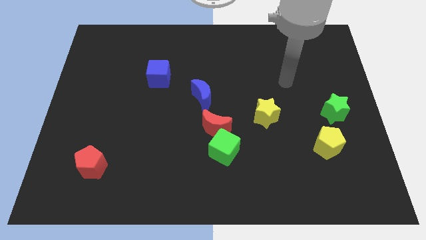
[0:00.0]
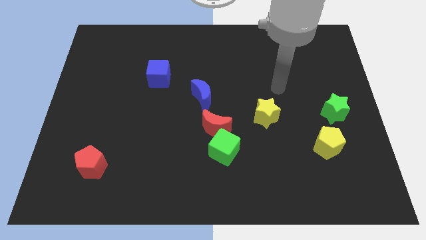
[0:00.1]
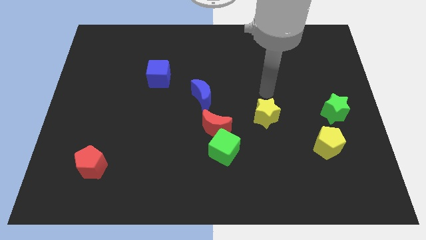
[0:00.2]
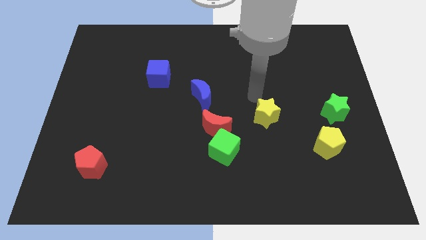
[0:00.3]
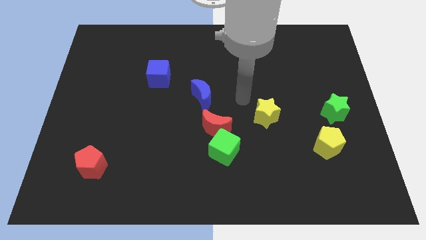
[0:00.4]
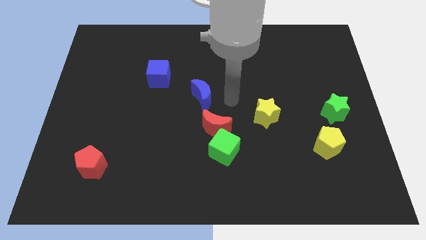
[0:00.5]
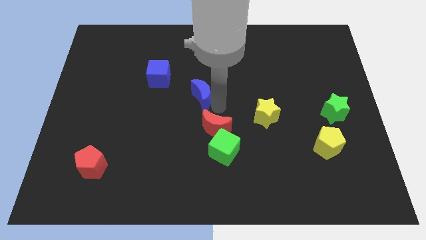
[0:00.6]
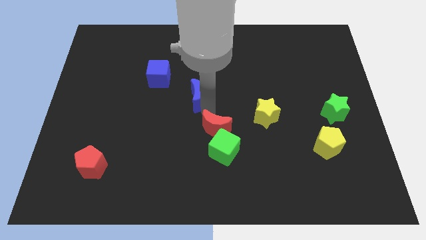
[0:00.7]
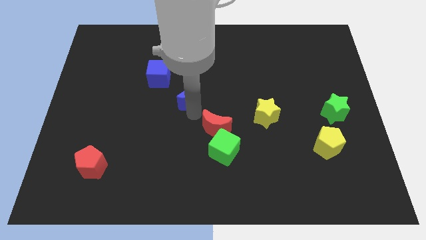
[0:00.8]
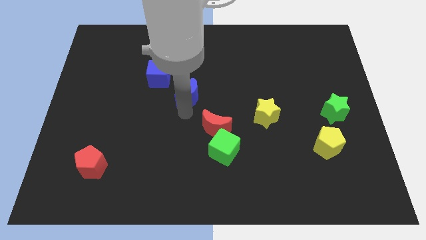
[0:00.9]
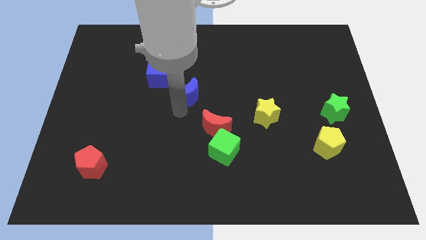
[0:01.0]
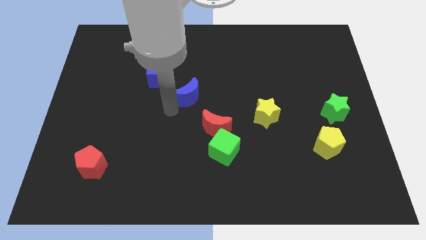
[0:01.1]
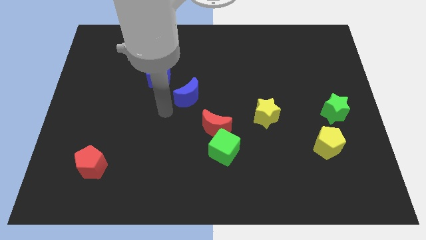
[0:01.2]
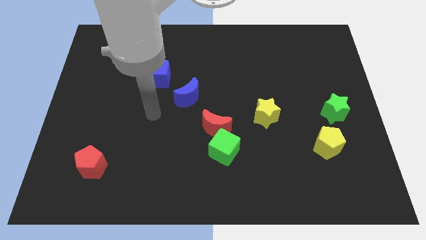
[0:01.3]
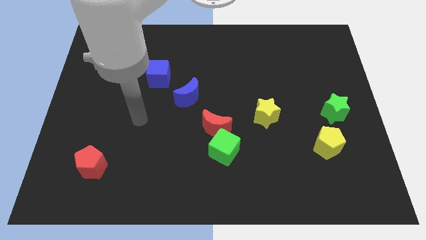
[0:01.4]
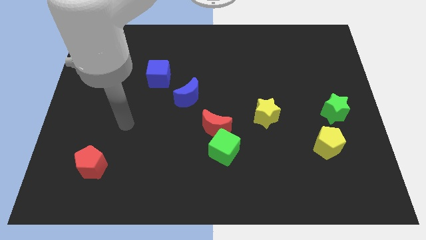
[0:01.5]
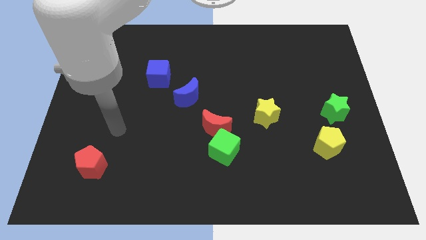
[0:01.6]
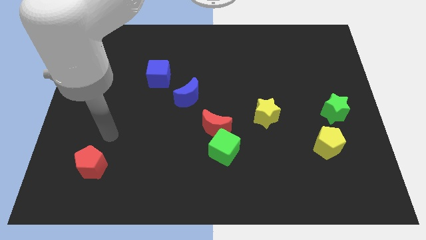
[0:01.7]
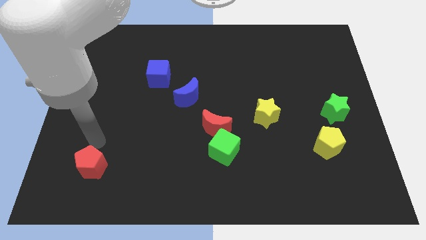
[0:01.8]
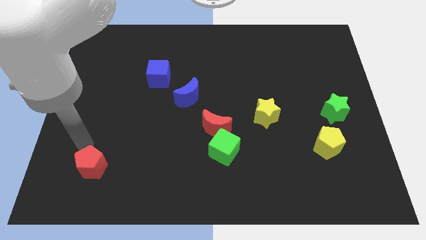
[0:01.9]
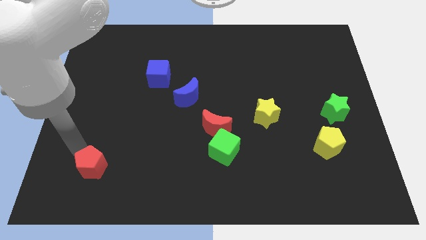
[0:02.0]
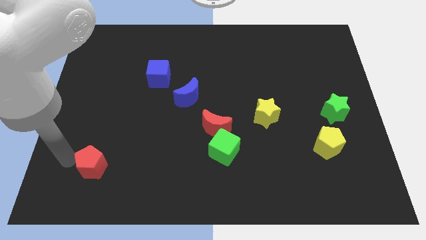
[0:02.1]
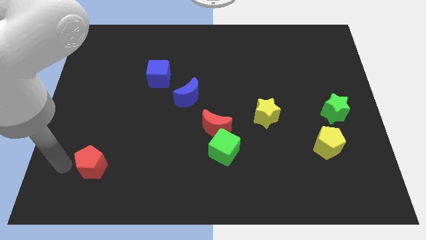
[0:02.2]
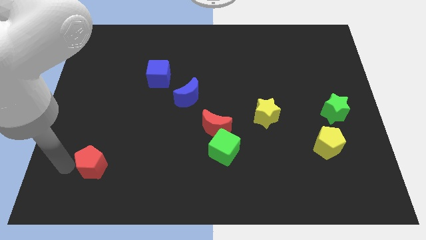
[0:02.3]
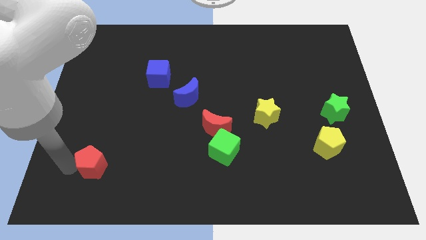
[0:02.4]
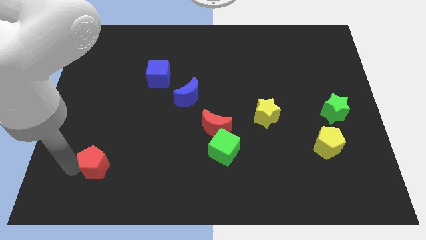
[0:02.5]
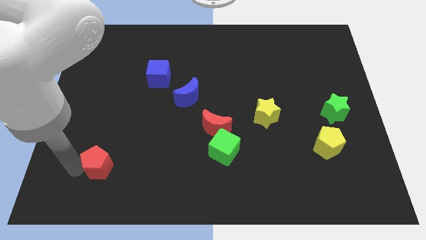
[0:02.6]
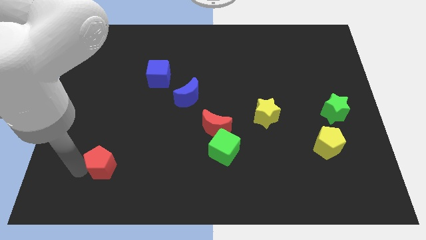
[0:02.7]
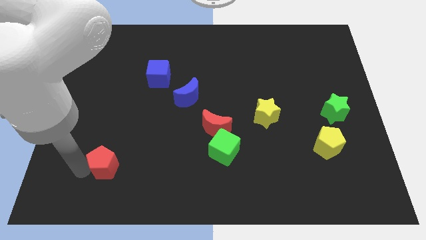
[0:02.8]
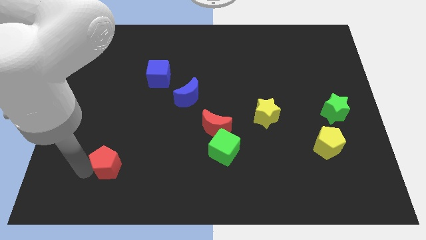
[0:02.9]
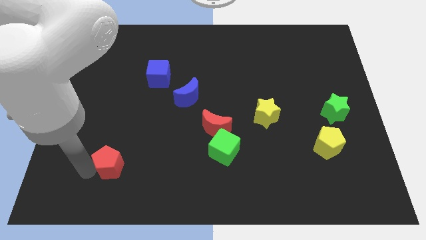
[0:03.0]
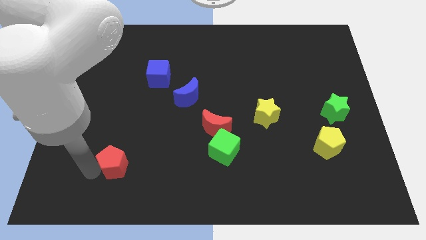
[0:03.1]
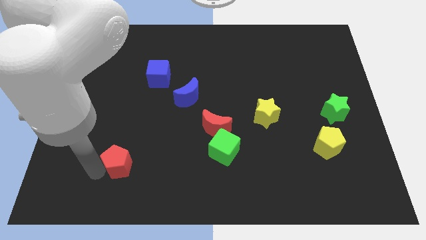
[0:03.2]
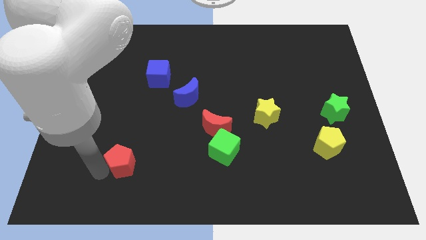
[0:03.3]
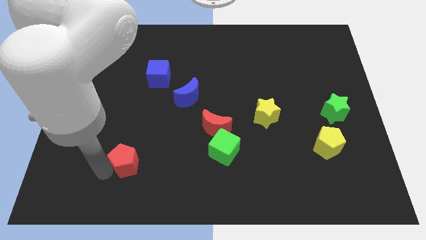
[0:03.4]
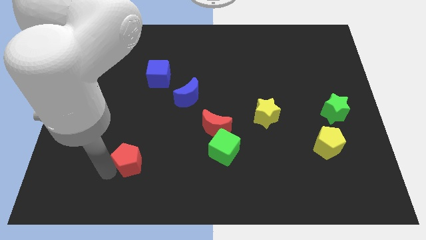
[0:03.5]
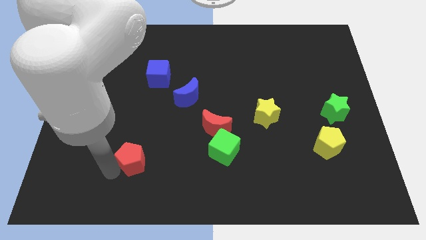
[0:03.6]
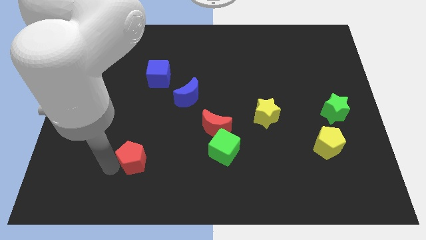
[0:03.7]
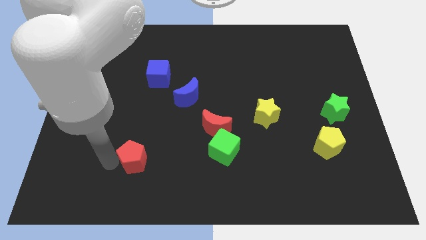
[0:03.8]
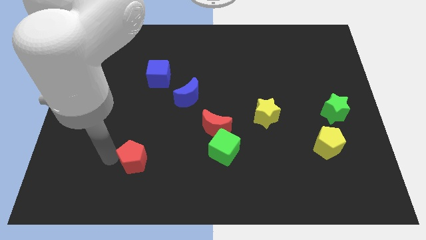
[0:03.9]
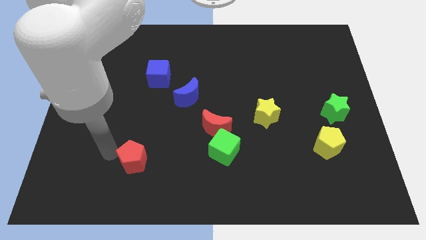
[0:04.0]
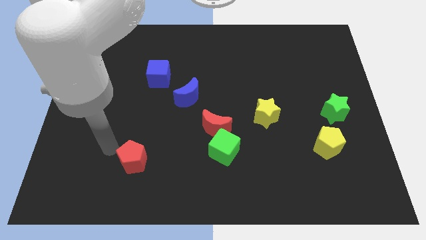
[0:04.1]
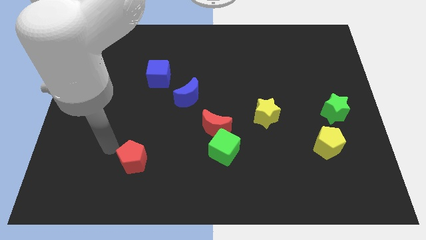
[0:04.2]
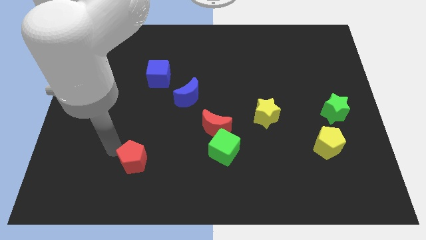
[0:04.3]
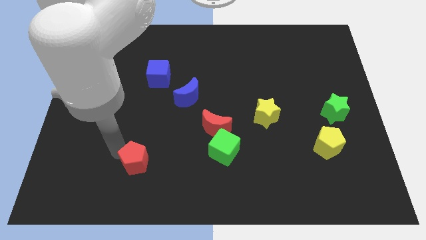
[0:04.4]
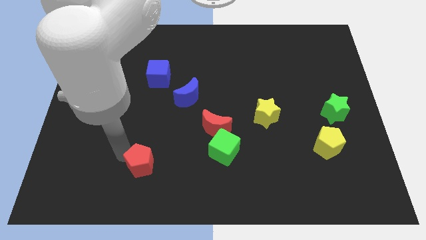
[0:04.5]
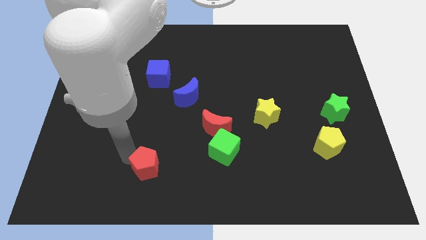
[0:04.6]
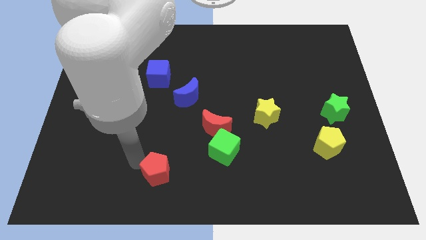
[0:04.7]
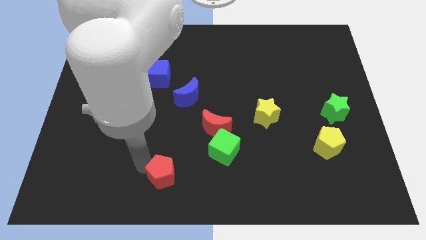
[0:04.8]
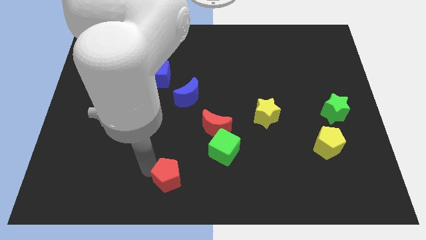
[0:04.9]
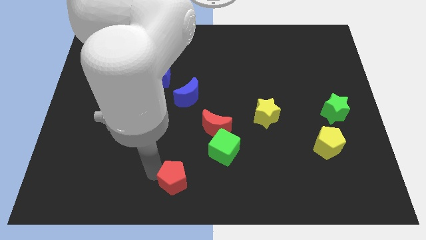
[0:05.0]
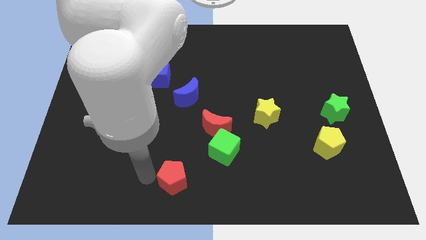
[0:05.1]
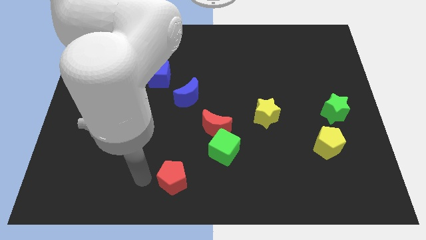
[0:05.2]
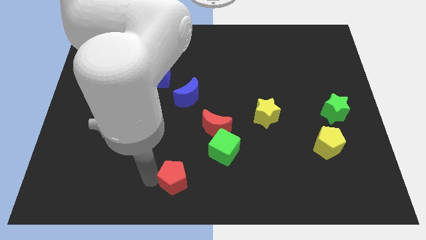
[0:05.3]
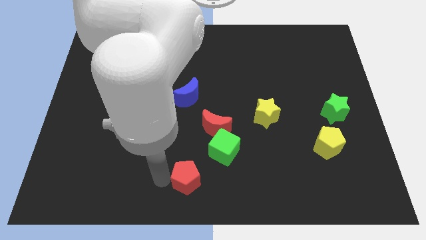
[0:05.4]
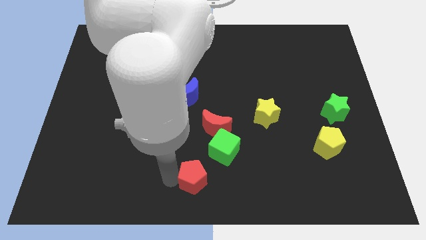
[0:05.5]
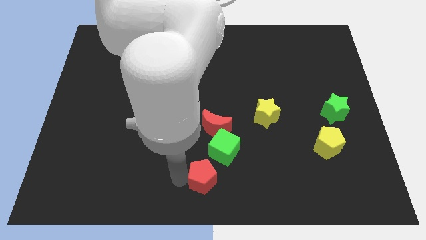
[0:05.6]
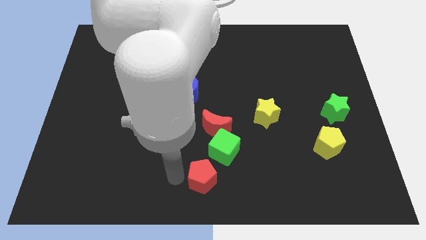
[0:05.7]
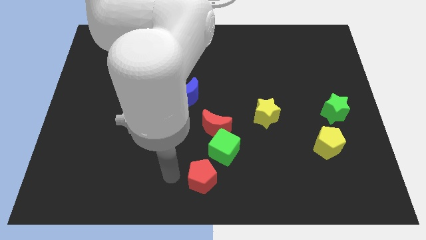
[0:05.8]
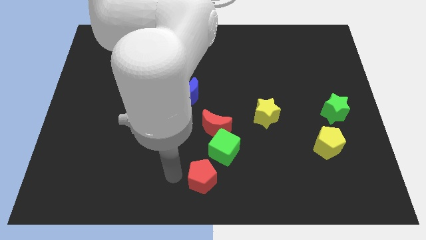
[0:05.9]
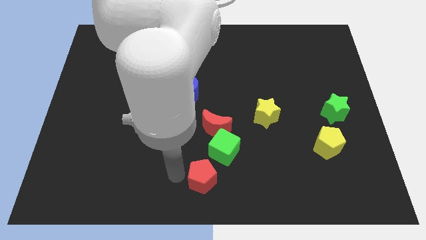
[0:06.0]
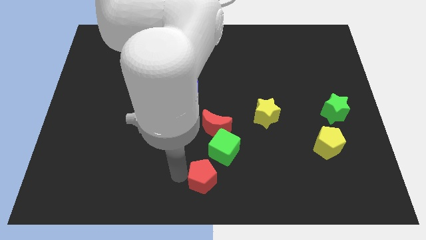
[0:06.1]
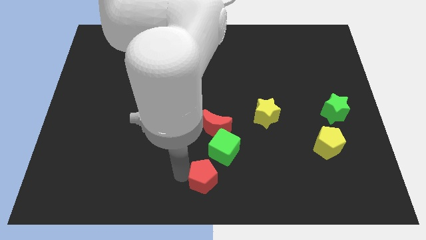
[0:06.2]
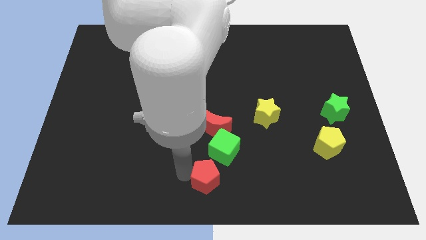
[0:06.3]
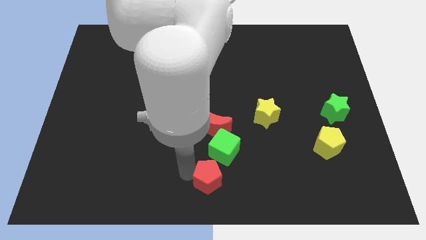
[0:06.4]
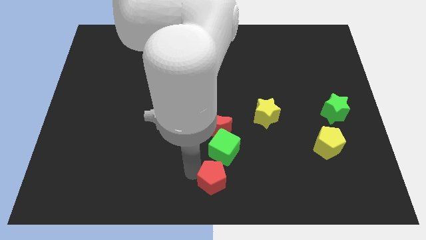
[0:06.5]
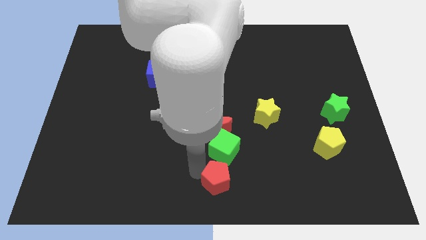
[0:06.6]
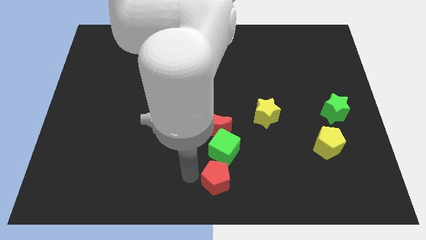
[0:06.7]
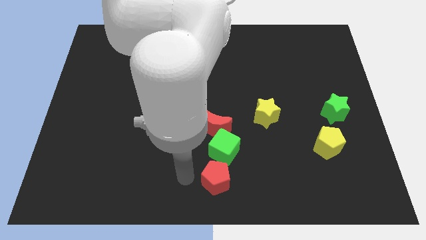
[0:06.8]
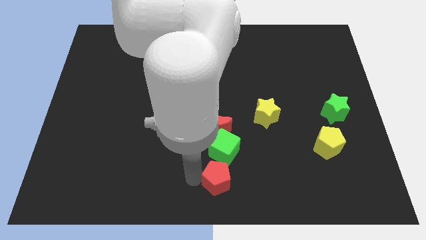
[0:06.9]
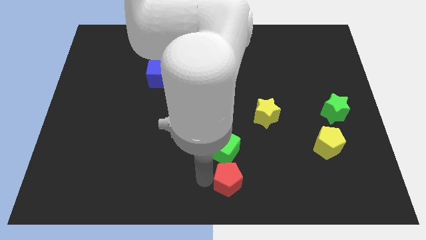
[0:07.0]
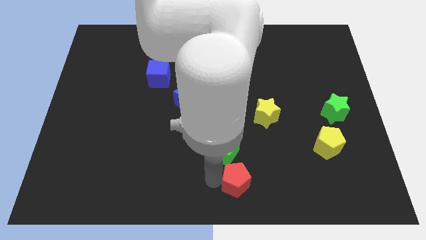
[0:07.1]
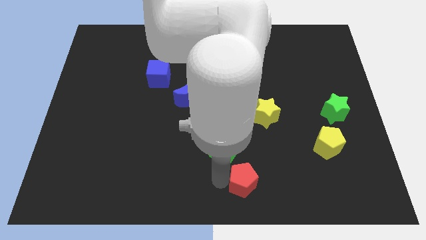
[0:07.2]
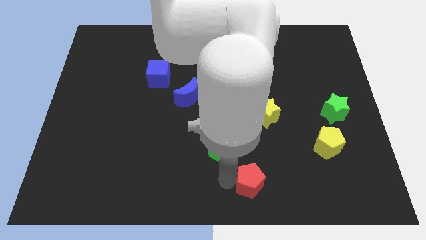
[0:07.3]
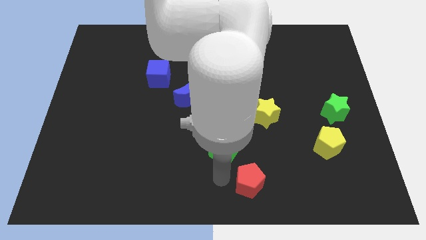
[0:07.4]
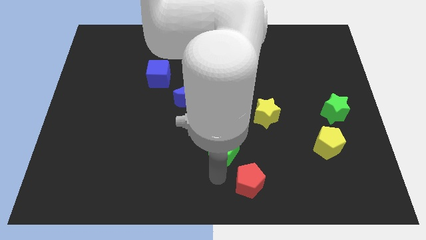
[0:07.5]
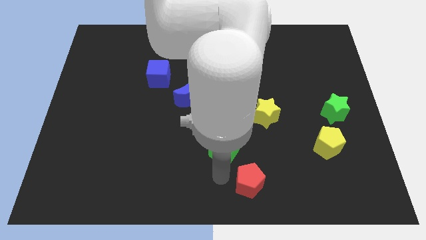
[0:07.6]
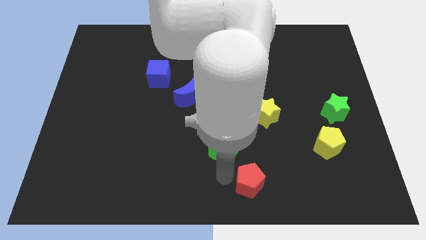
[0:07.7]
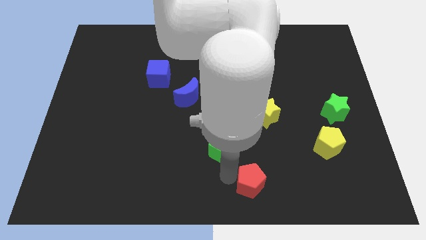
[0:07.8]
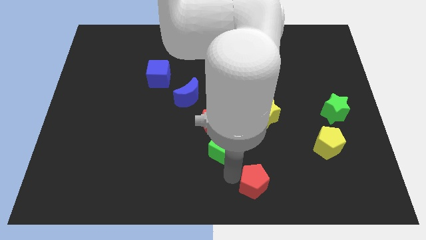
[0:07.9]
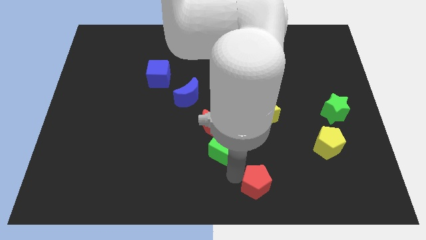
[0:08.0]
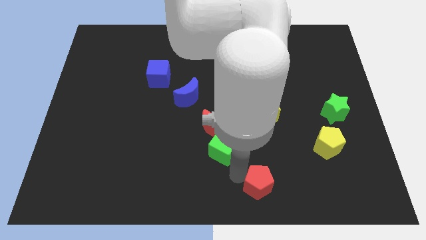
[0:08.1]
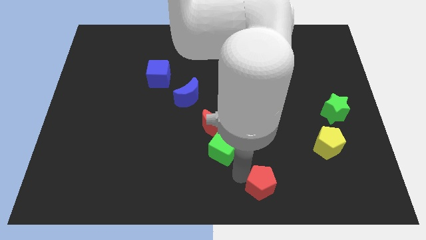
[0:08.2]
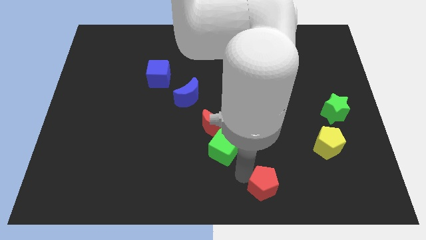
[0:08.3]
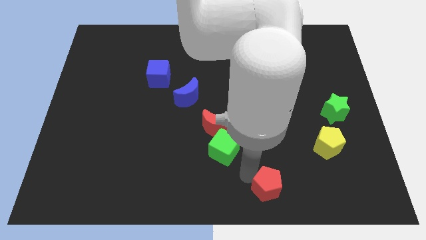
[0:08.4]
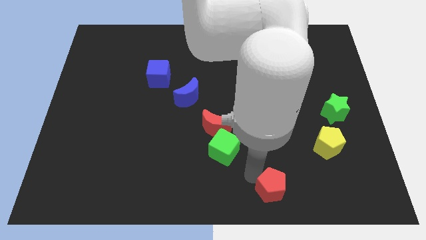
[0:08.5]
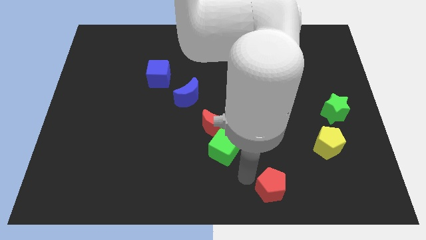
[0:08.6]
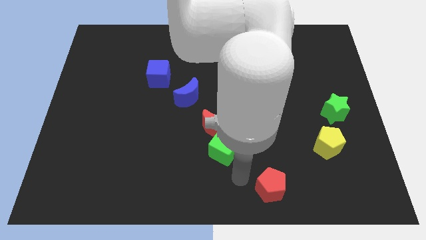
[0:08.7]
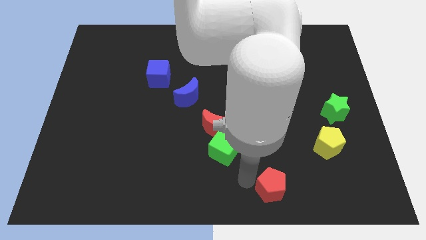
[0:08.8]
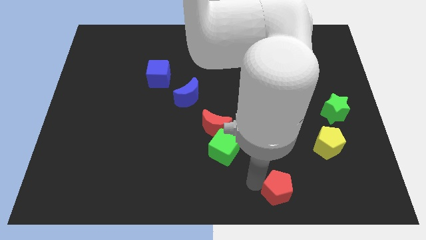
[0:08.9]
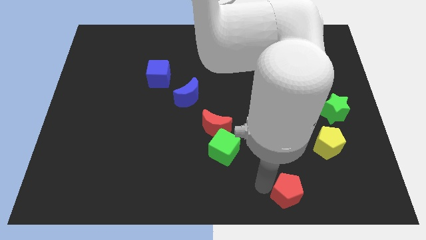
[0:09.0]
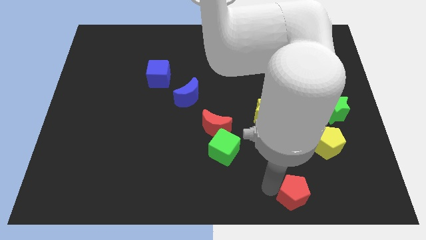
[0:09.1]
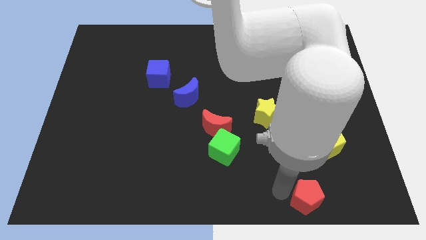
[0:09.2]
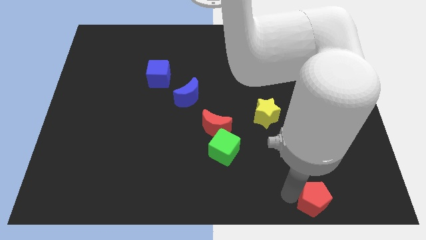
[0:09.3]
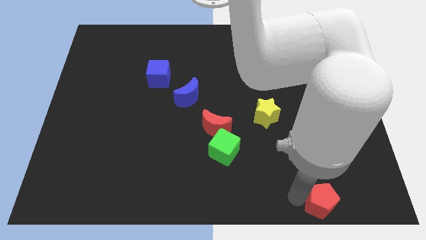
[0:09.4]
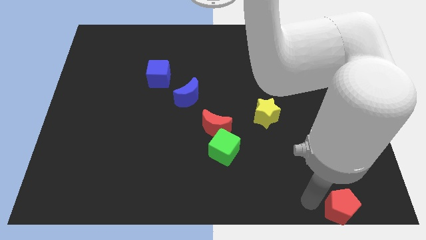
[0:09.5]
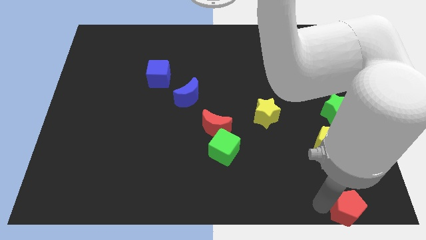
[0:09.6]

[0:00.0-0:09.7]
put the red pentagon to the lower right corner
